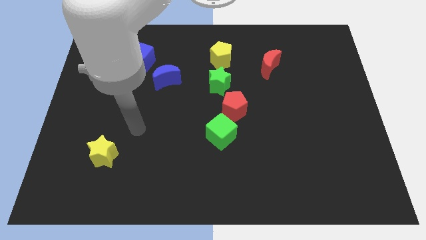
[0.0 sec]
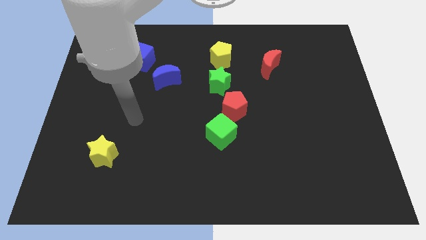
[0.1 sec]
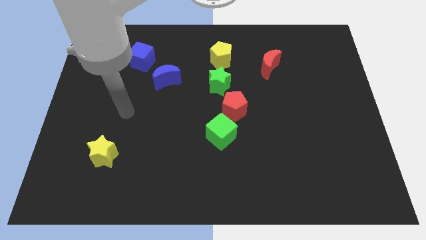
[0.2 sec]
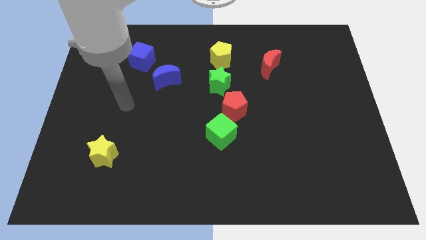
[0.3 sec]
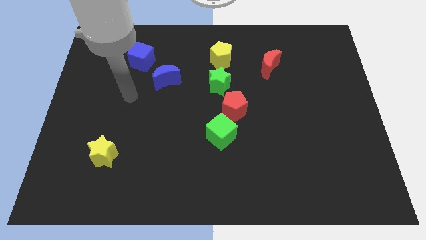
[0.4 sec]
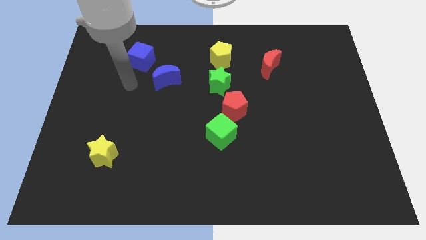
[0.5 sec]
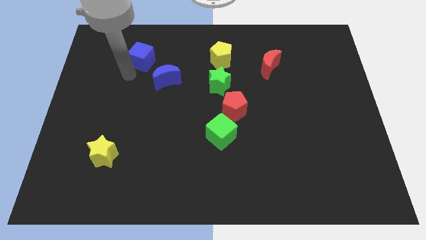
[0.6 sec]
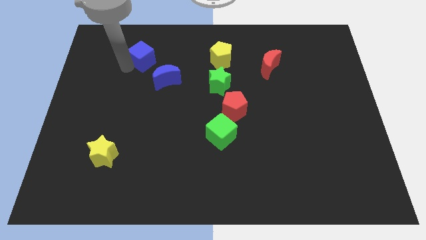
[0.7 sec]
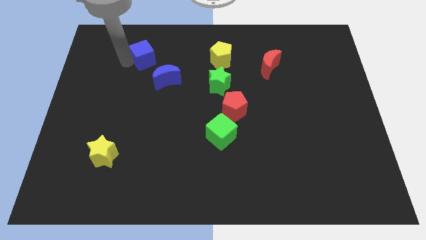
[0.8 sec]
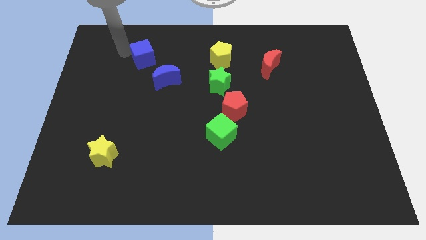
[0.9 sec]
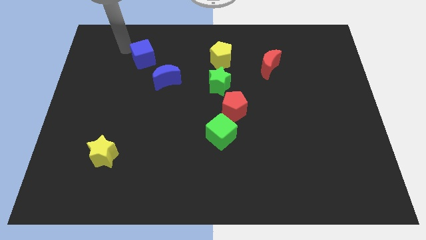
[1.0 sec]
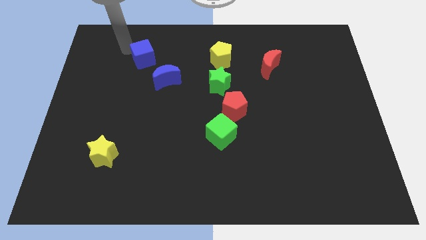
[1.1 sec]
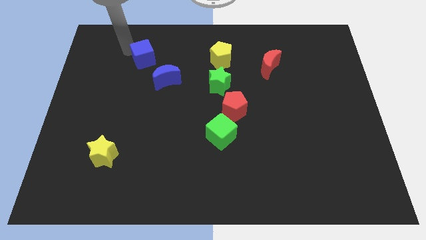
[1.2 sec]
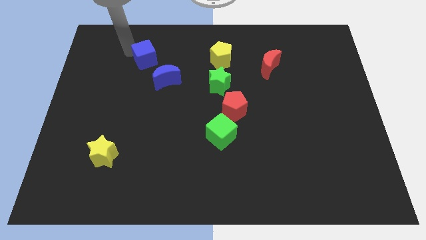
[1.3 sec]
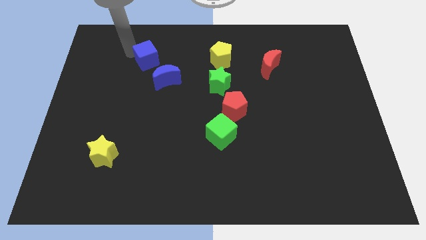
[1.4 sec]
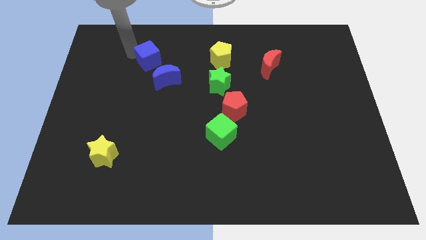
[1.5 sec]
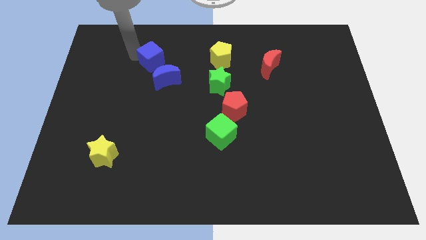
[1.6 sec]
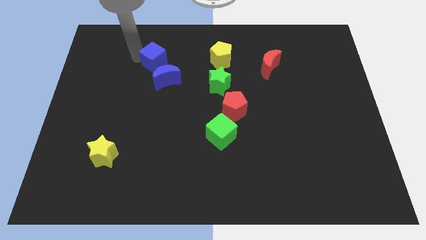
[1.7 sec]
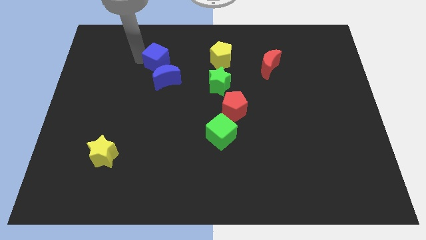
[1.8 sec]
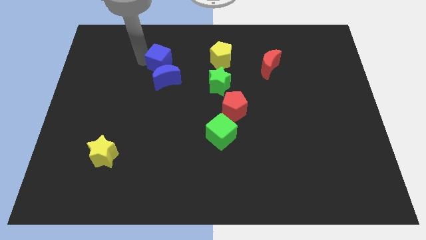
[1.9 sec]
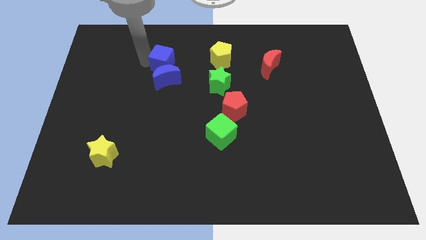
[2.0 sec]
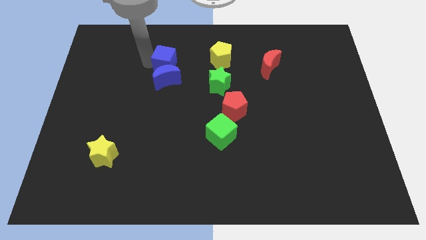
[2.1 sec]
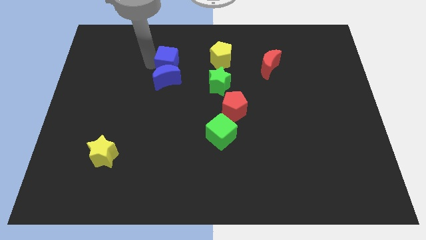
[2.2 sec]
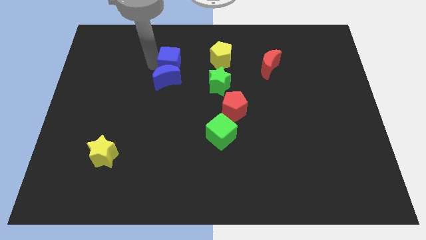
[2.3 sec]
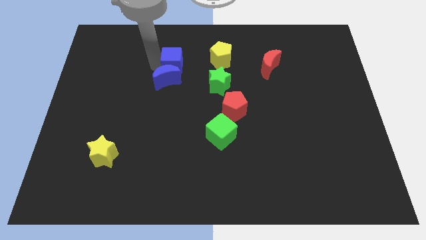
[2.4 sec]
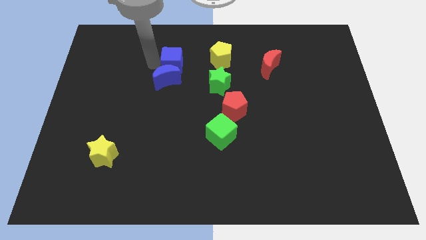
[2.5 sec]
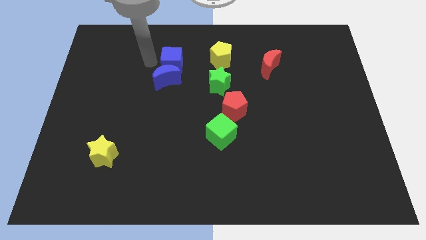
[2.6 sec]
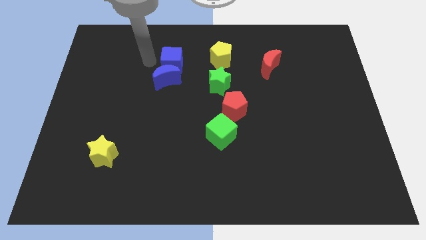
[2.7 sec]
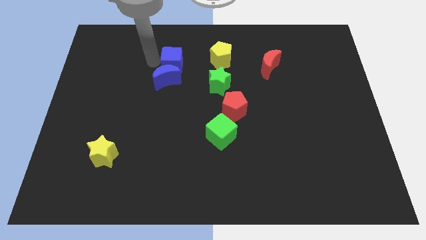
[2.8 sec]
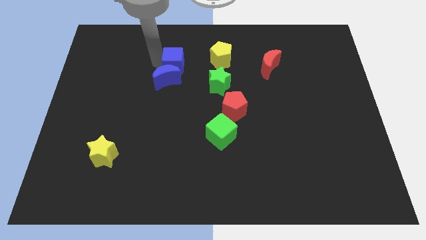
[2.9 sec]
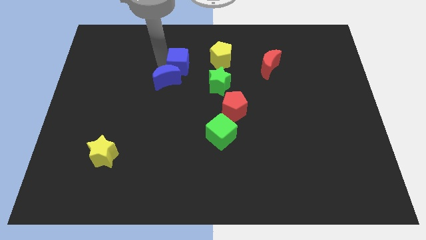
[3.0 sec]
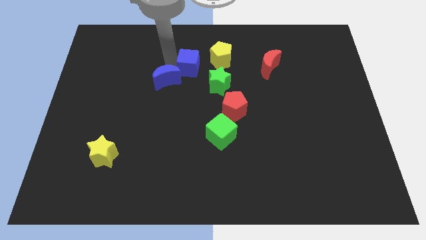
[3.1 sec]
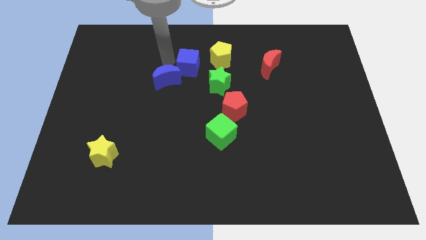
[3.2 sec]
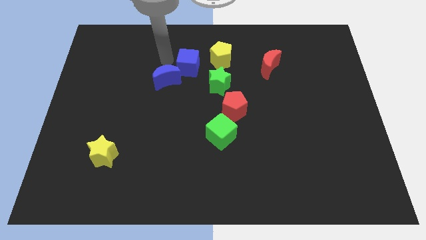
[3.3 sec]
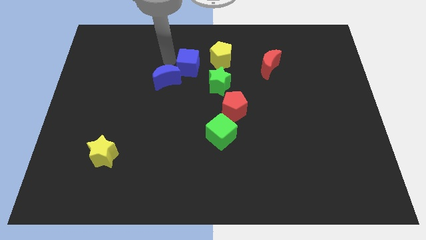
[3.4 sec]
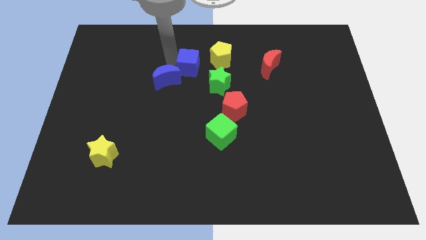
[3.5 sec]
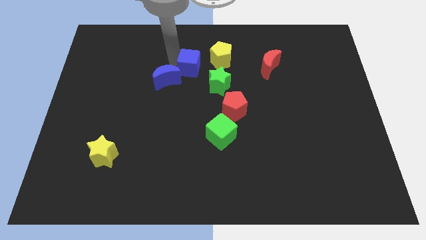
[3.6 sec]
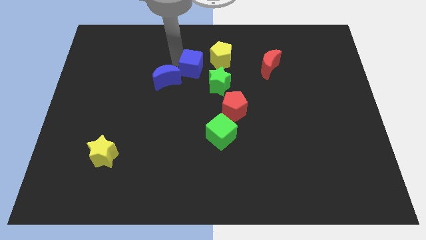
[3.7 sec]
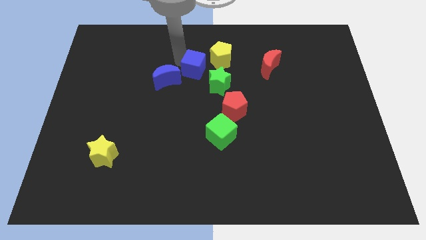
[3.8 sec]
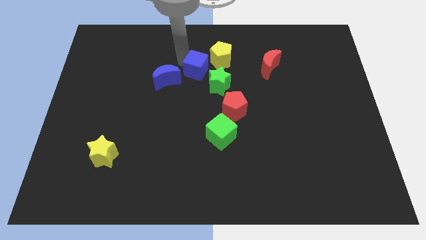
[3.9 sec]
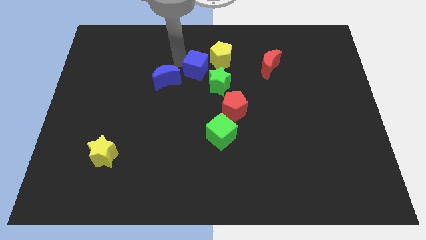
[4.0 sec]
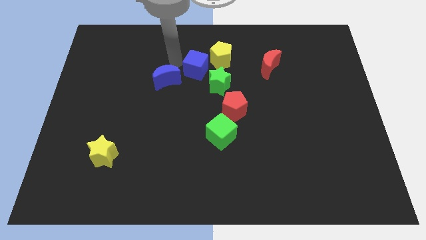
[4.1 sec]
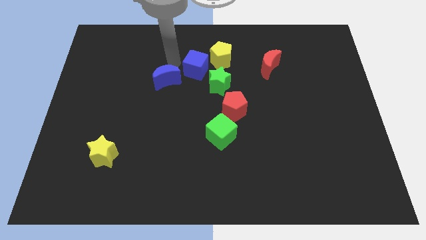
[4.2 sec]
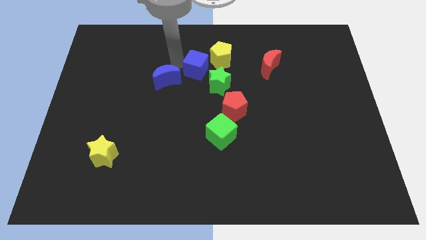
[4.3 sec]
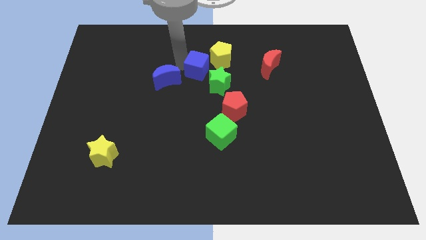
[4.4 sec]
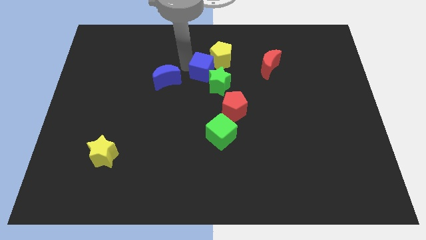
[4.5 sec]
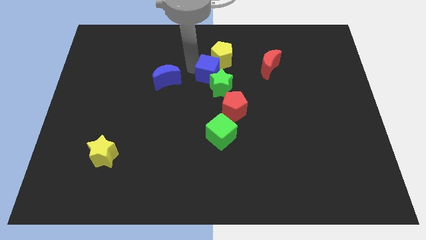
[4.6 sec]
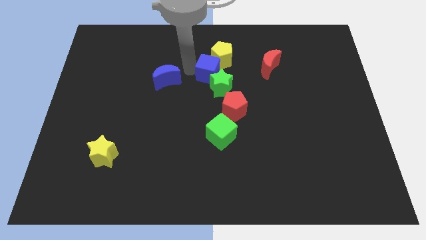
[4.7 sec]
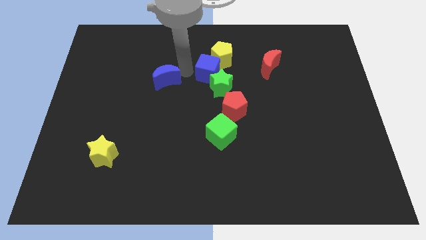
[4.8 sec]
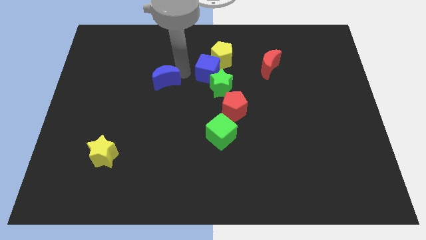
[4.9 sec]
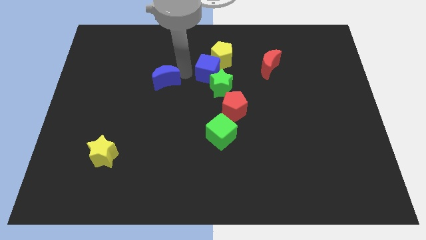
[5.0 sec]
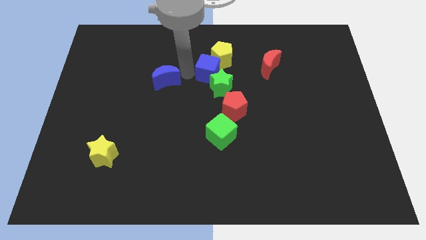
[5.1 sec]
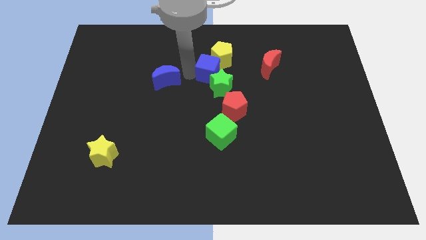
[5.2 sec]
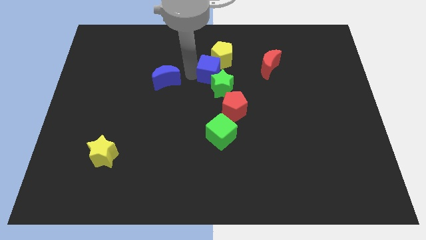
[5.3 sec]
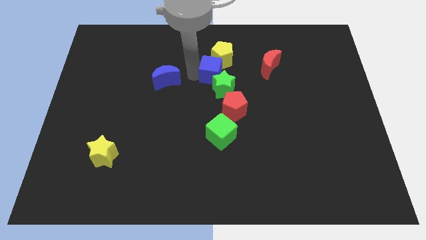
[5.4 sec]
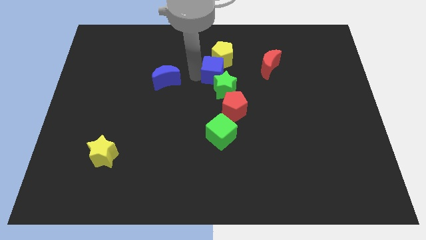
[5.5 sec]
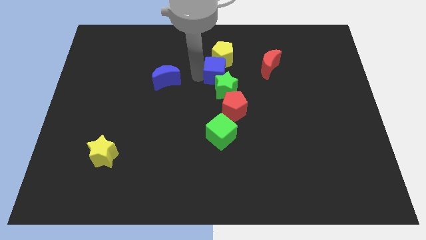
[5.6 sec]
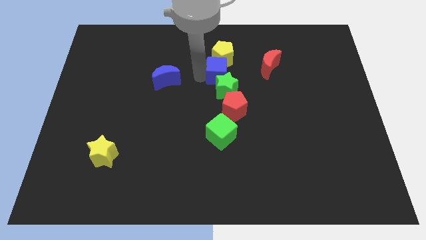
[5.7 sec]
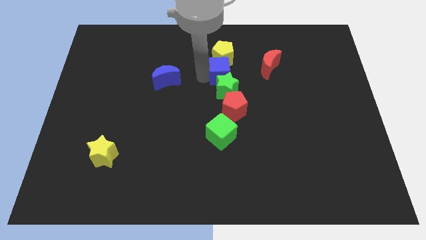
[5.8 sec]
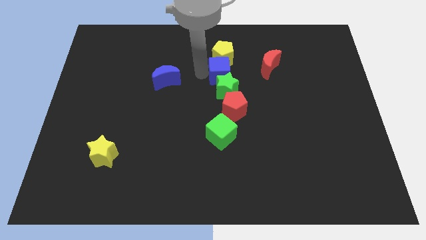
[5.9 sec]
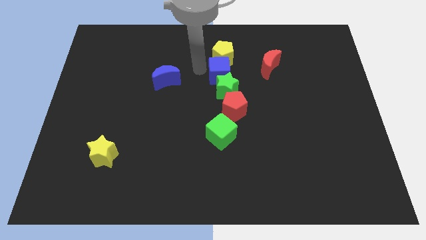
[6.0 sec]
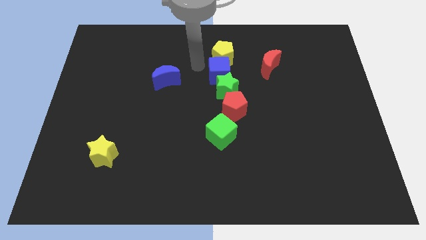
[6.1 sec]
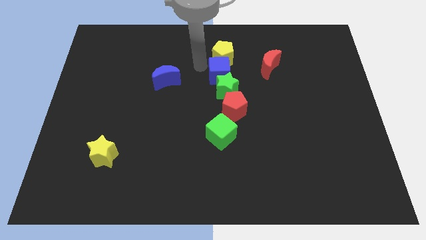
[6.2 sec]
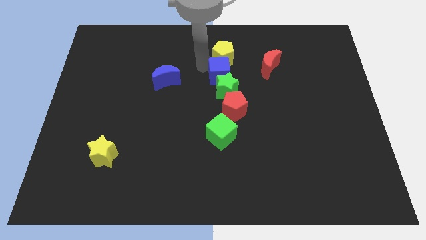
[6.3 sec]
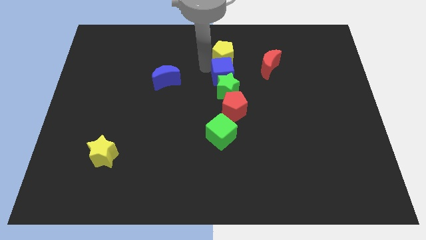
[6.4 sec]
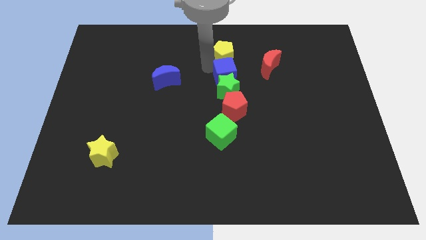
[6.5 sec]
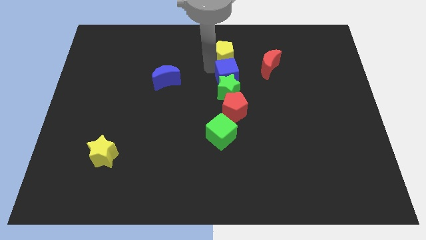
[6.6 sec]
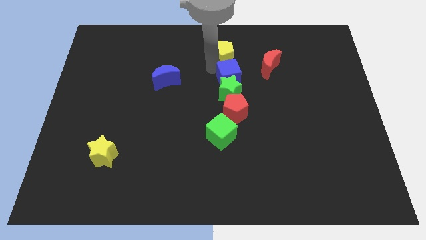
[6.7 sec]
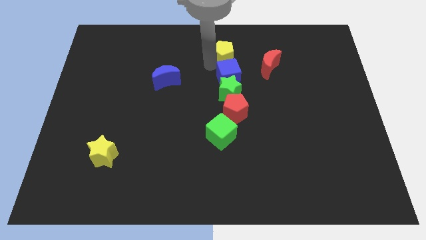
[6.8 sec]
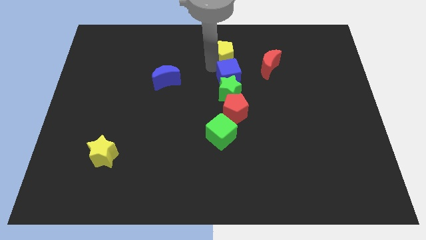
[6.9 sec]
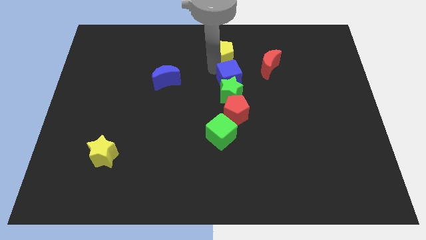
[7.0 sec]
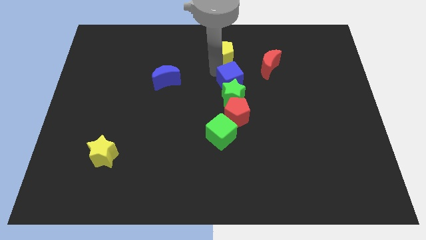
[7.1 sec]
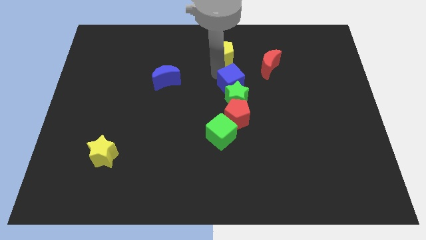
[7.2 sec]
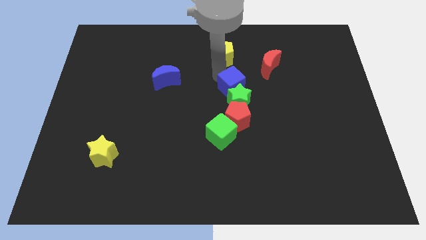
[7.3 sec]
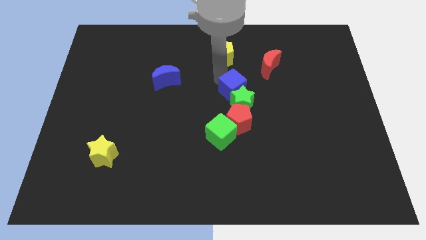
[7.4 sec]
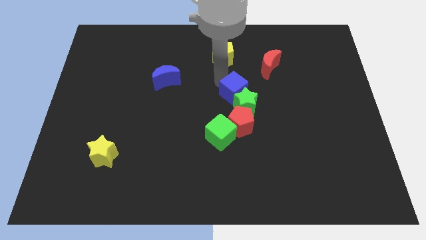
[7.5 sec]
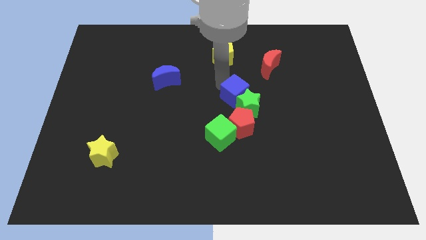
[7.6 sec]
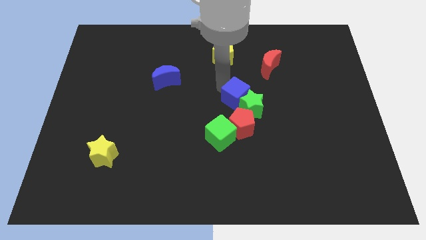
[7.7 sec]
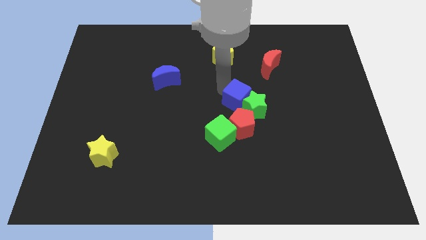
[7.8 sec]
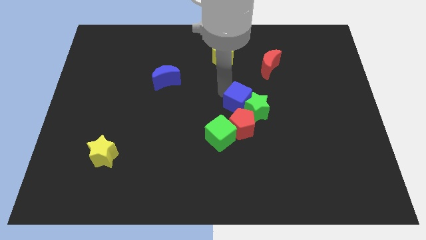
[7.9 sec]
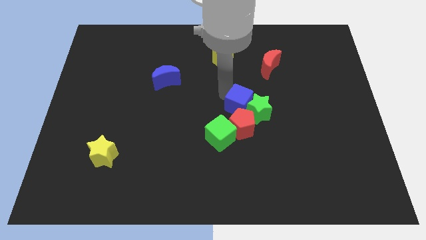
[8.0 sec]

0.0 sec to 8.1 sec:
push the blue cube diagonally up and to the right of the red pentagon

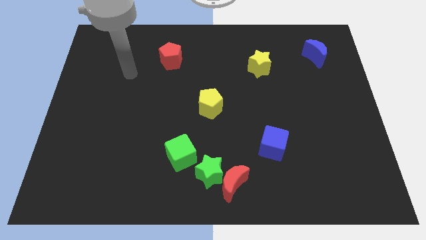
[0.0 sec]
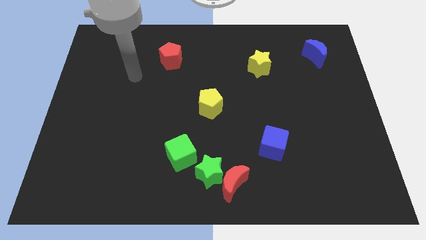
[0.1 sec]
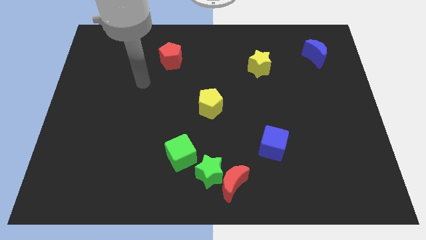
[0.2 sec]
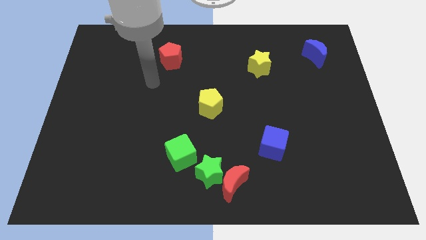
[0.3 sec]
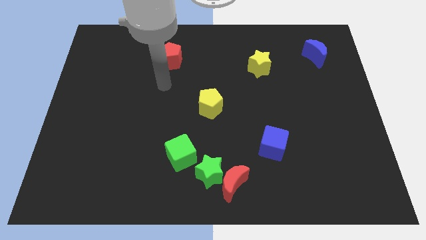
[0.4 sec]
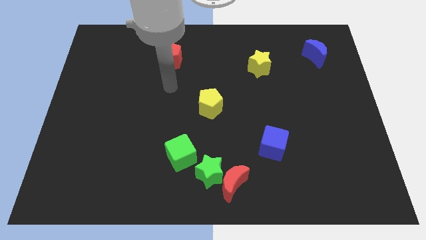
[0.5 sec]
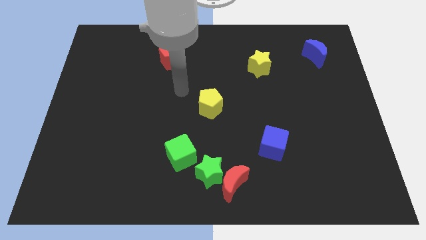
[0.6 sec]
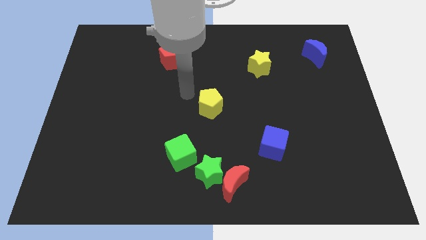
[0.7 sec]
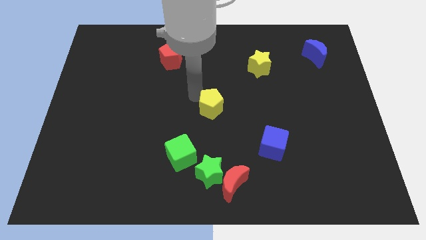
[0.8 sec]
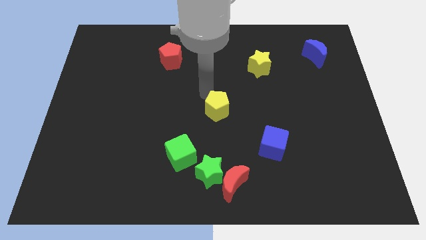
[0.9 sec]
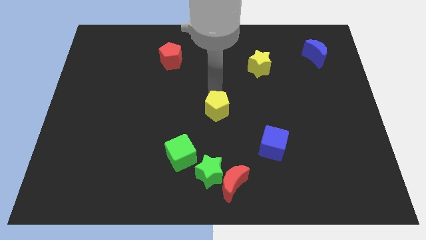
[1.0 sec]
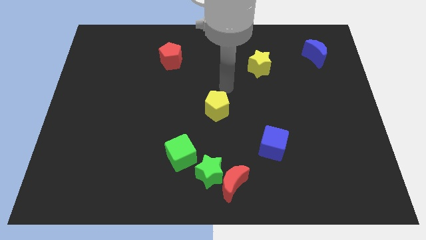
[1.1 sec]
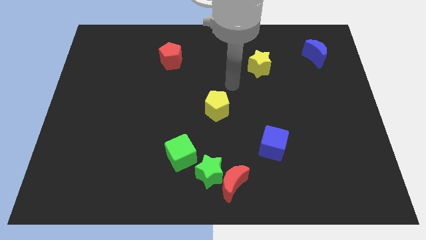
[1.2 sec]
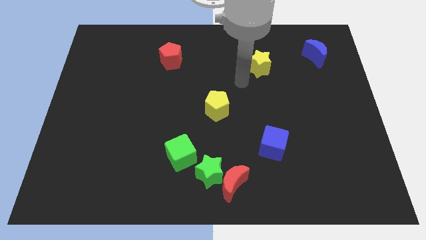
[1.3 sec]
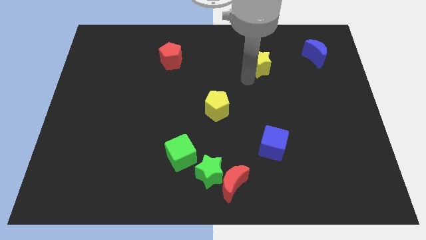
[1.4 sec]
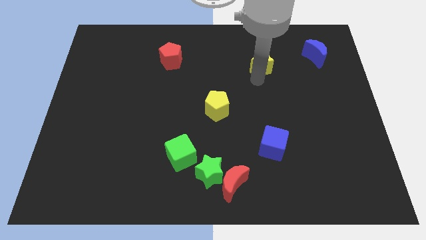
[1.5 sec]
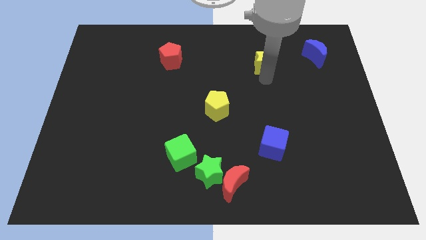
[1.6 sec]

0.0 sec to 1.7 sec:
put the blue moon right of the yellow star
